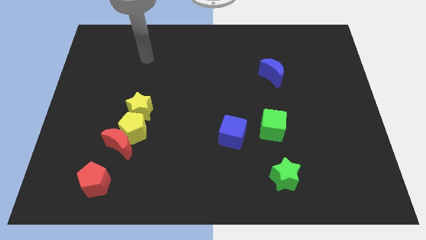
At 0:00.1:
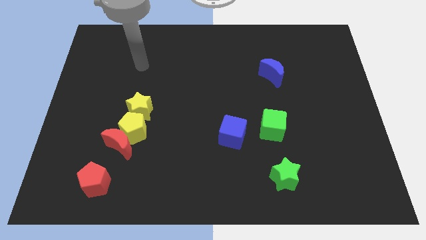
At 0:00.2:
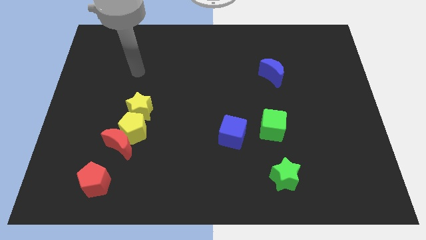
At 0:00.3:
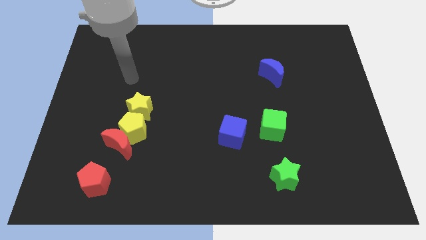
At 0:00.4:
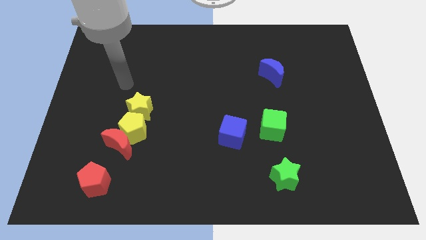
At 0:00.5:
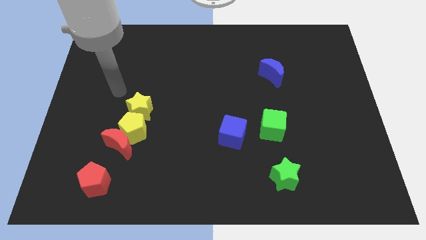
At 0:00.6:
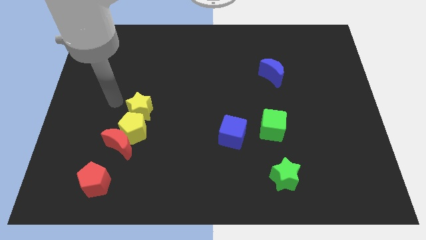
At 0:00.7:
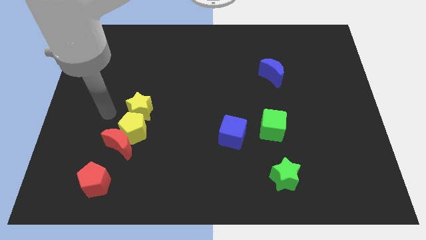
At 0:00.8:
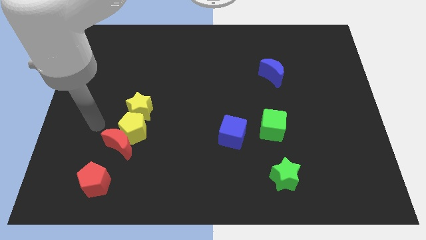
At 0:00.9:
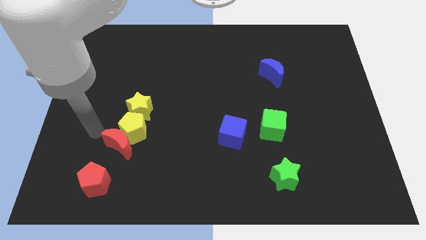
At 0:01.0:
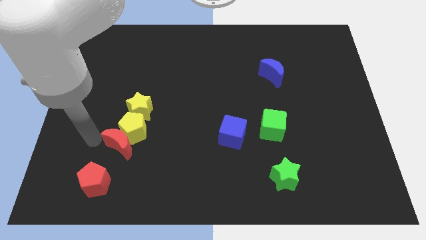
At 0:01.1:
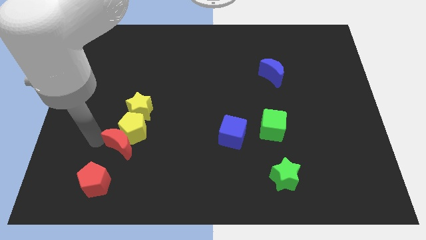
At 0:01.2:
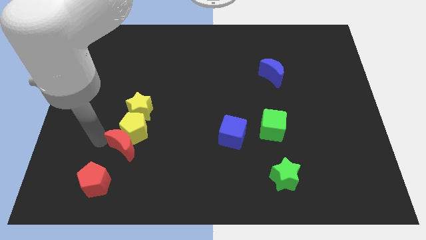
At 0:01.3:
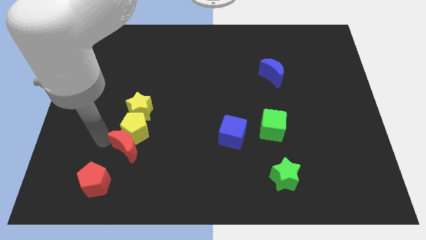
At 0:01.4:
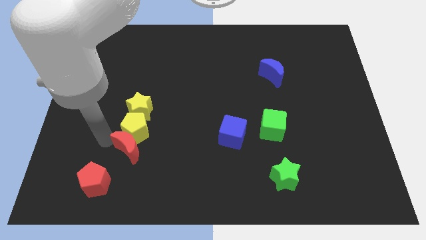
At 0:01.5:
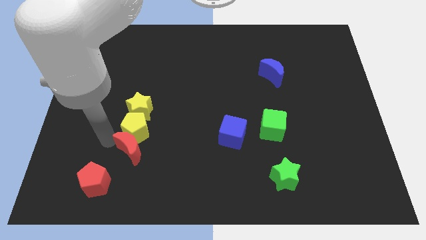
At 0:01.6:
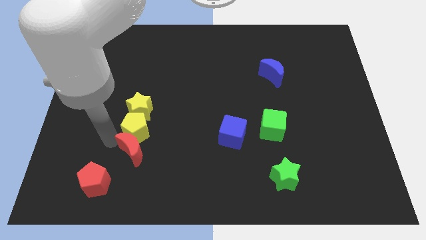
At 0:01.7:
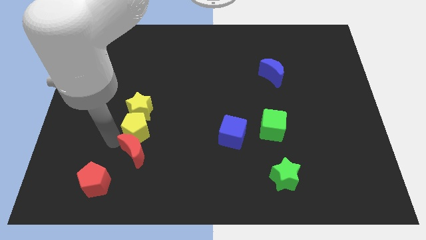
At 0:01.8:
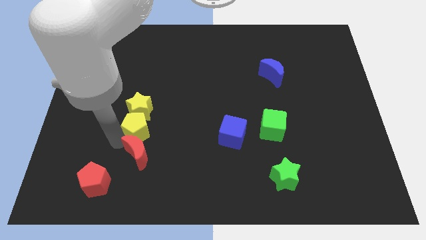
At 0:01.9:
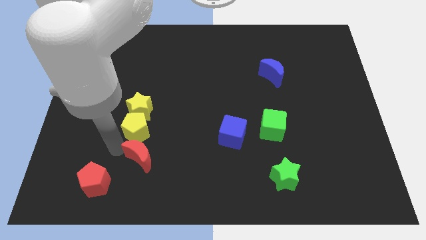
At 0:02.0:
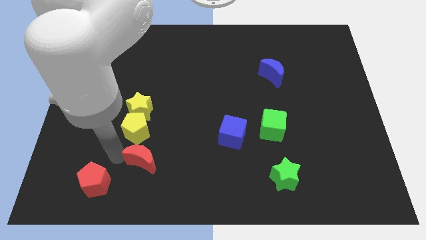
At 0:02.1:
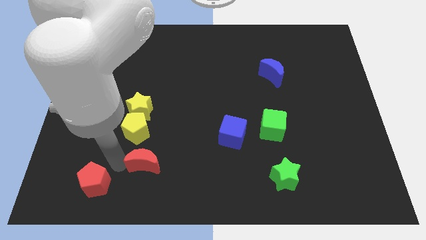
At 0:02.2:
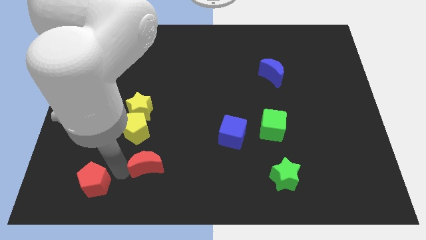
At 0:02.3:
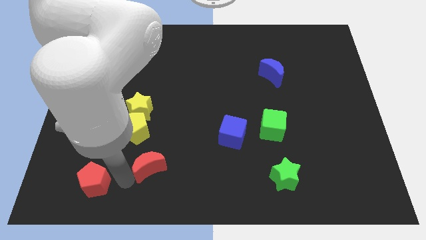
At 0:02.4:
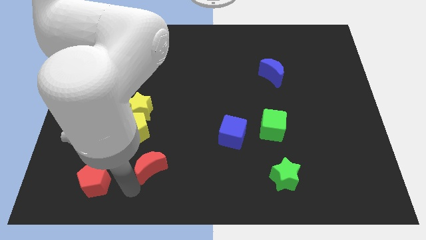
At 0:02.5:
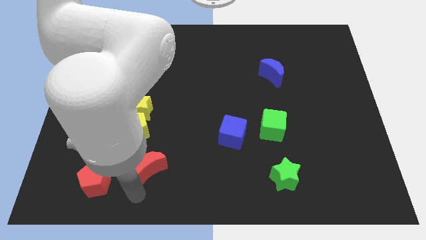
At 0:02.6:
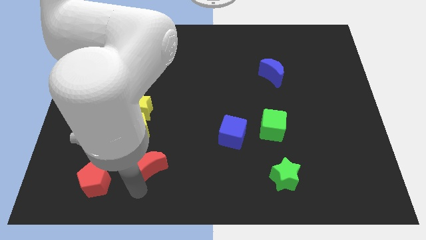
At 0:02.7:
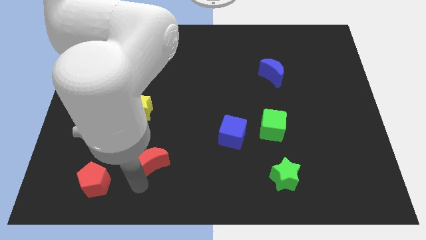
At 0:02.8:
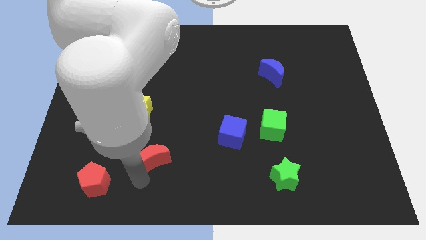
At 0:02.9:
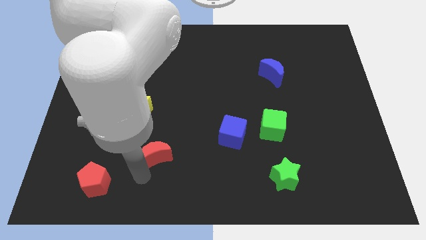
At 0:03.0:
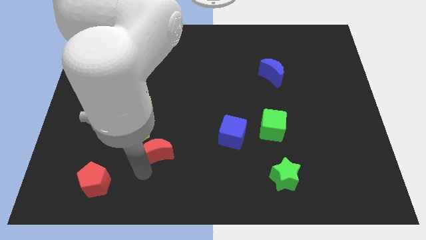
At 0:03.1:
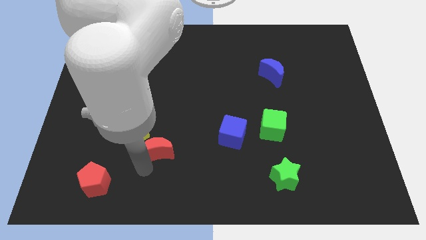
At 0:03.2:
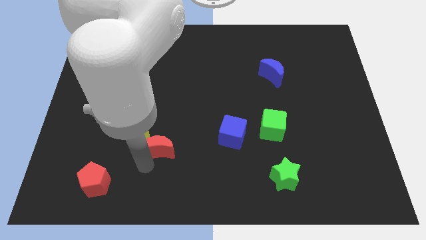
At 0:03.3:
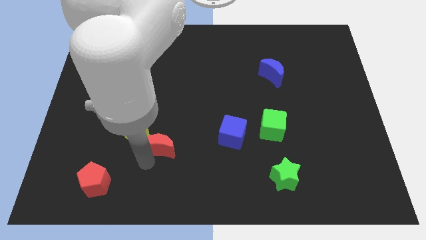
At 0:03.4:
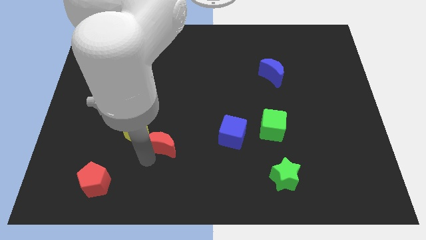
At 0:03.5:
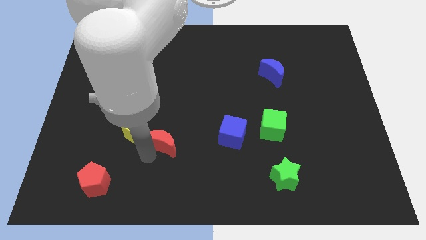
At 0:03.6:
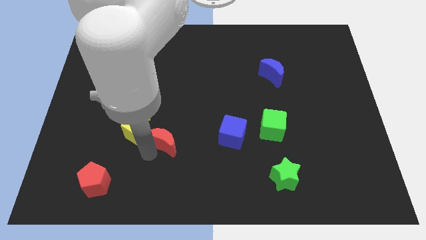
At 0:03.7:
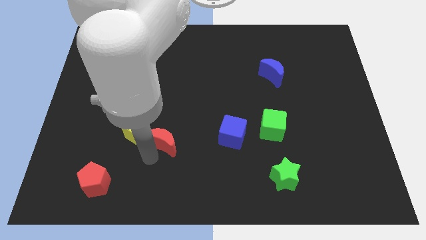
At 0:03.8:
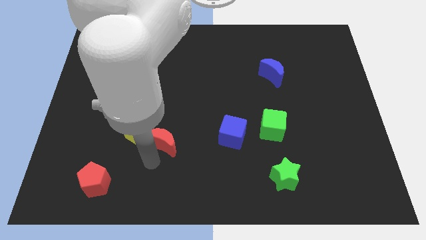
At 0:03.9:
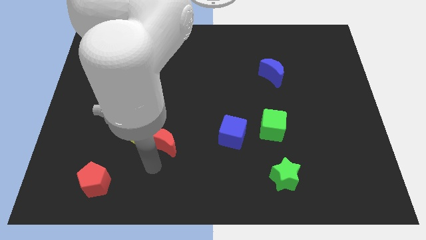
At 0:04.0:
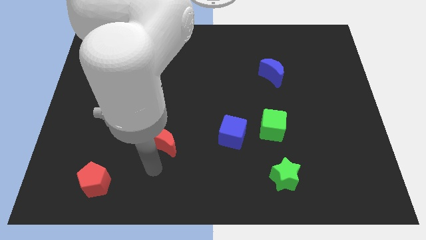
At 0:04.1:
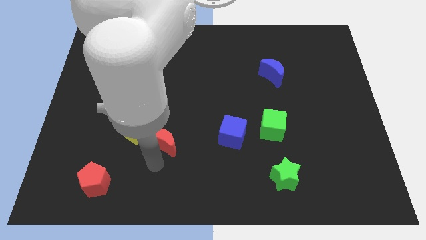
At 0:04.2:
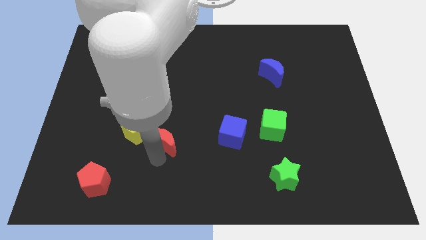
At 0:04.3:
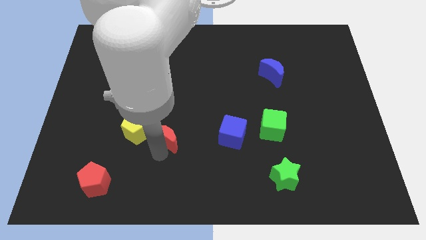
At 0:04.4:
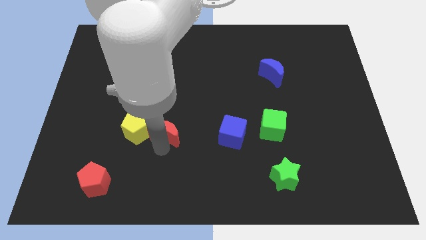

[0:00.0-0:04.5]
slightly push the red moon diagonally upwards and to the right

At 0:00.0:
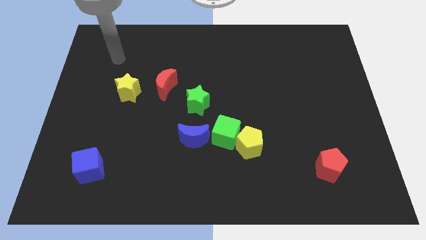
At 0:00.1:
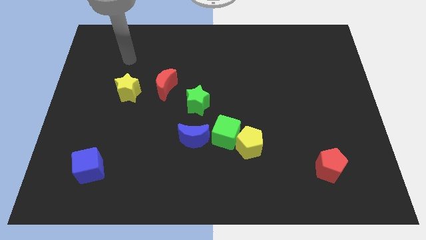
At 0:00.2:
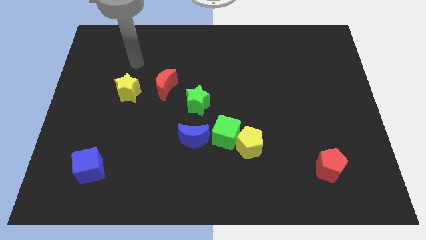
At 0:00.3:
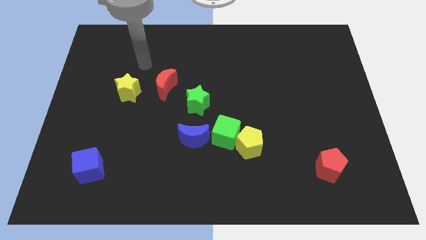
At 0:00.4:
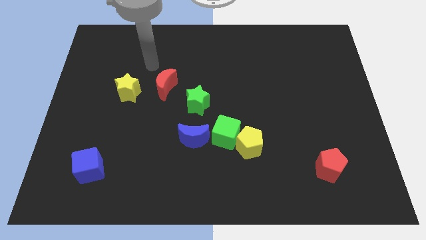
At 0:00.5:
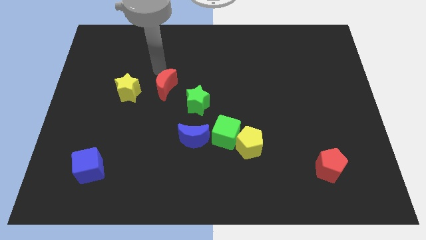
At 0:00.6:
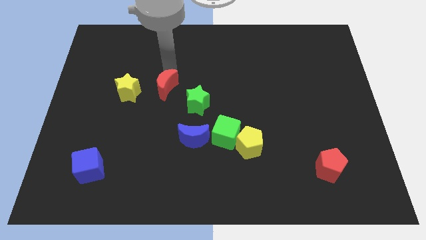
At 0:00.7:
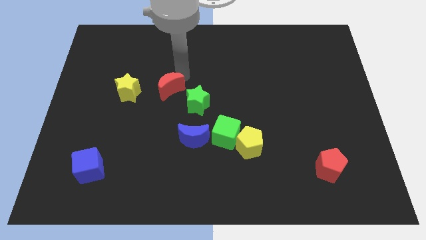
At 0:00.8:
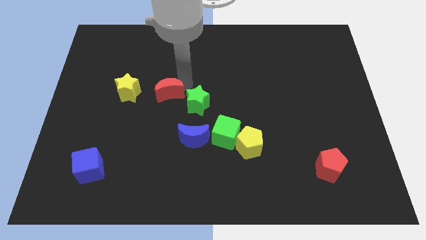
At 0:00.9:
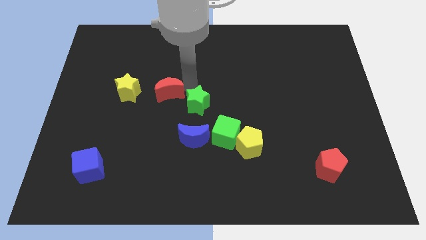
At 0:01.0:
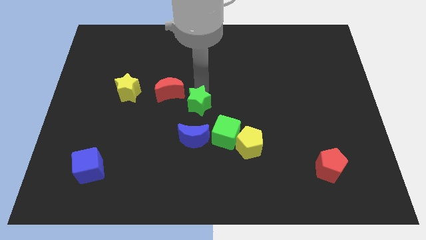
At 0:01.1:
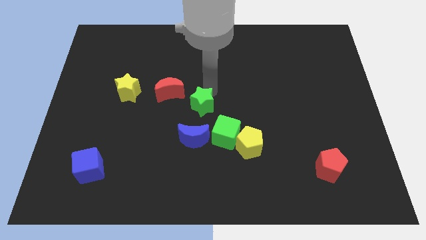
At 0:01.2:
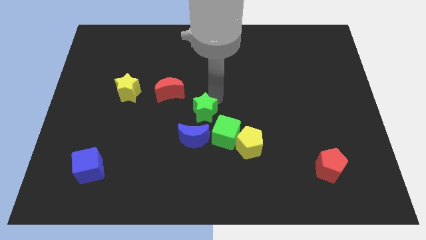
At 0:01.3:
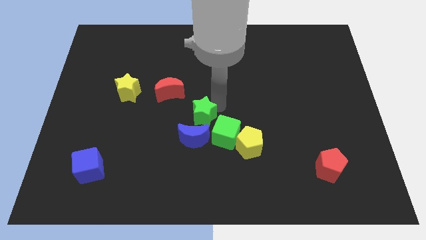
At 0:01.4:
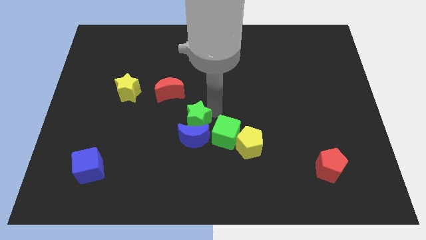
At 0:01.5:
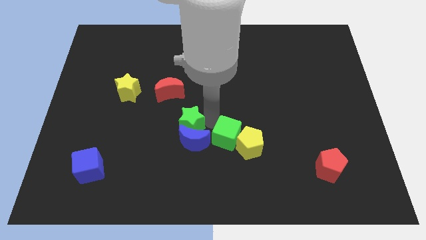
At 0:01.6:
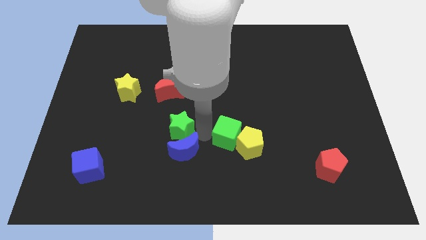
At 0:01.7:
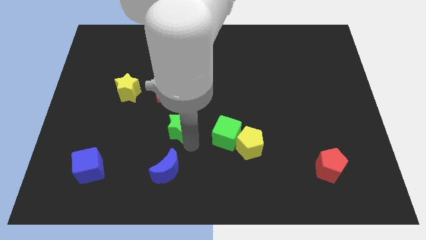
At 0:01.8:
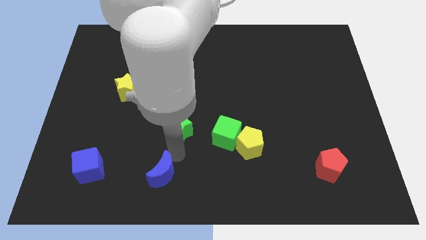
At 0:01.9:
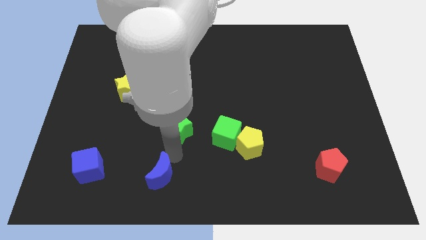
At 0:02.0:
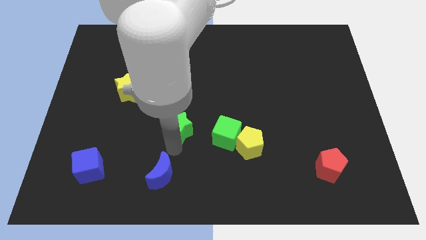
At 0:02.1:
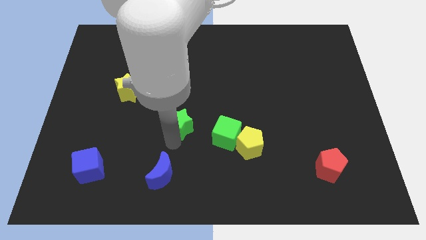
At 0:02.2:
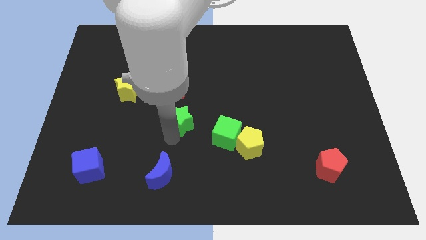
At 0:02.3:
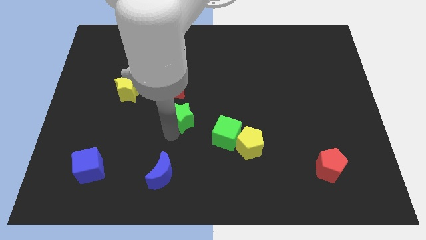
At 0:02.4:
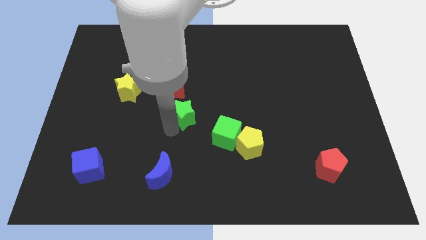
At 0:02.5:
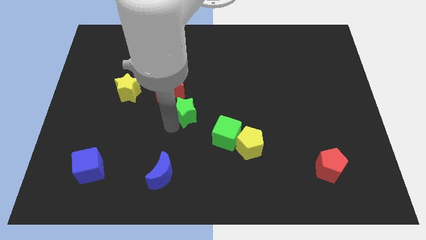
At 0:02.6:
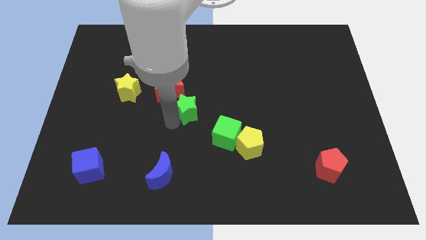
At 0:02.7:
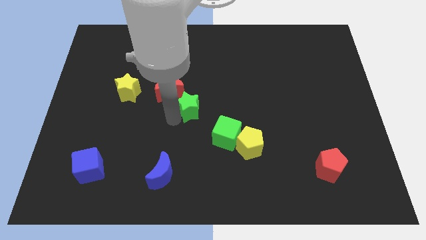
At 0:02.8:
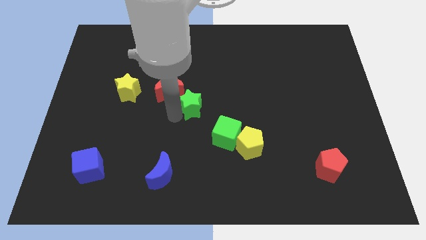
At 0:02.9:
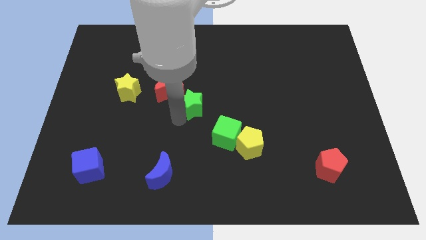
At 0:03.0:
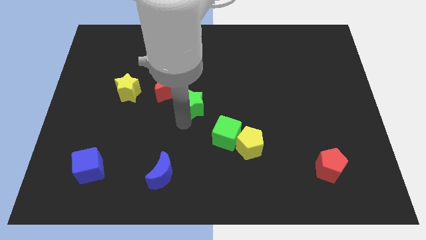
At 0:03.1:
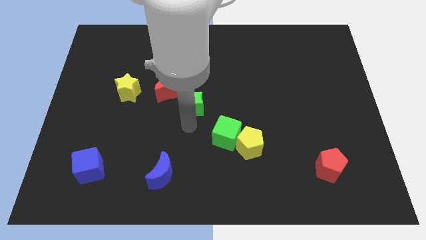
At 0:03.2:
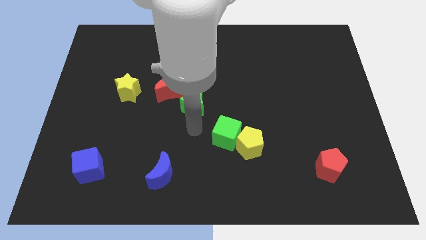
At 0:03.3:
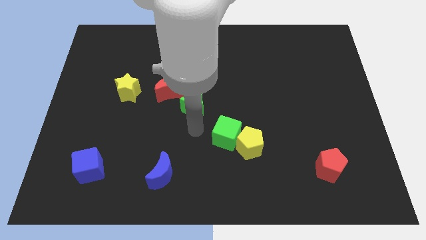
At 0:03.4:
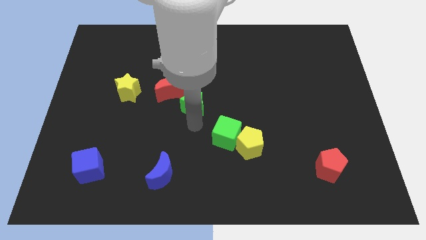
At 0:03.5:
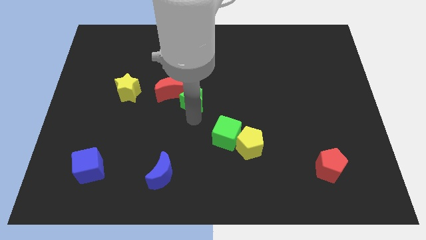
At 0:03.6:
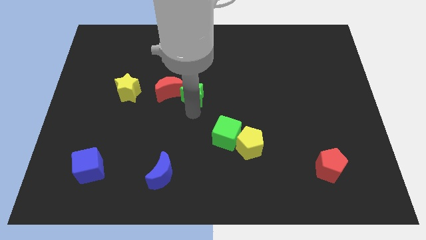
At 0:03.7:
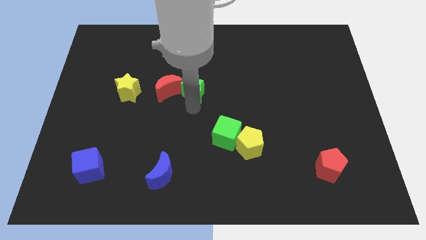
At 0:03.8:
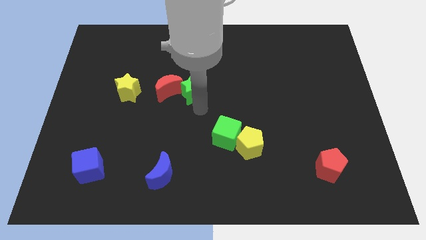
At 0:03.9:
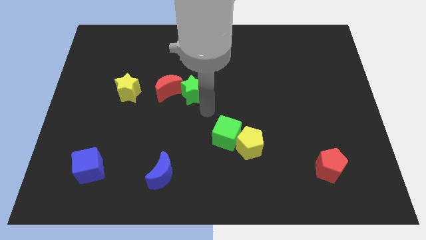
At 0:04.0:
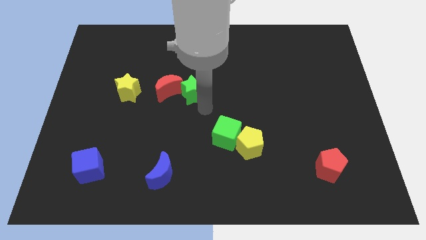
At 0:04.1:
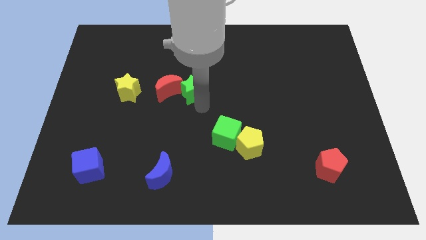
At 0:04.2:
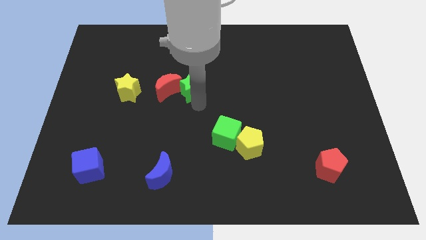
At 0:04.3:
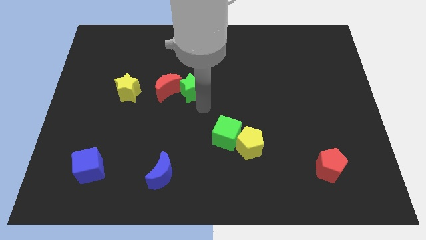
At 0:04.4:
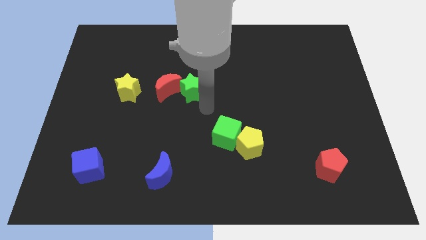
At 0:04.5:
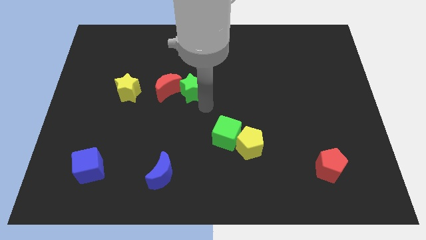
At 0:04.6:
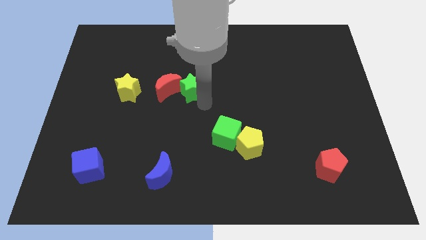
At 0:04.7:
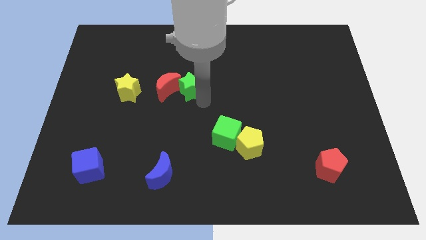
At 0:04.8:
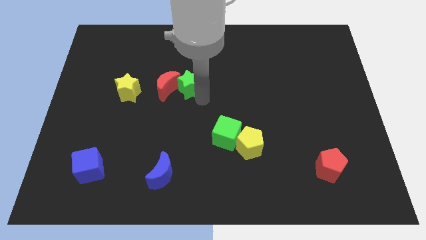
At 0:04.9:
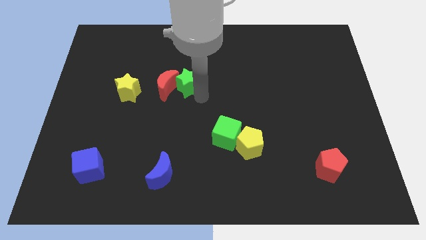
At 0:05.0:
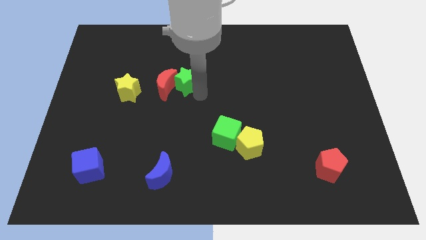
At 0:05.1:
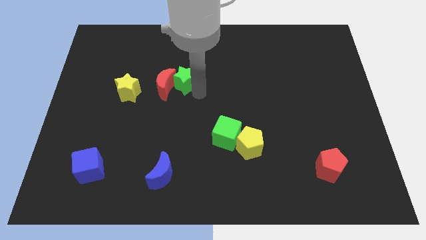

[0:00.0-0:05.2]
slide the green star slightly upwards and left diagonally
